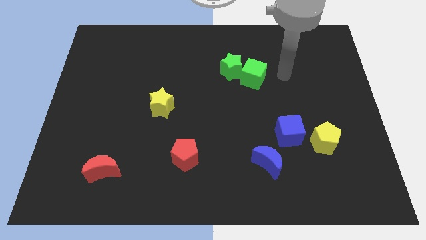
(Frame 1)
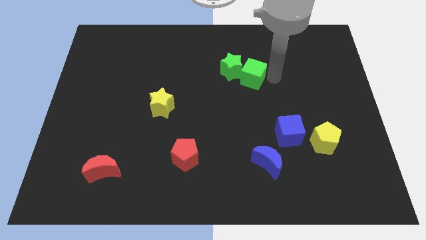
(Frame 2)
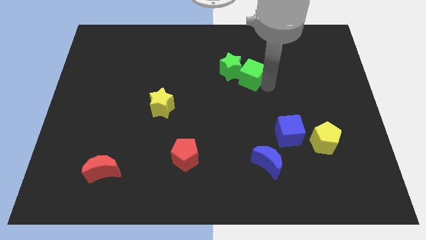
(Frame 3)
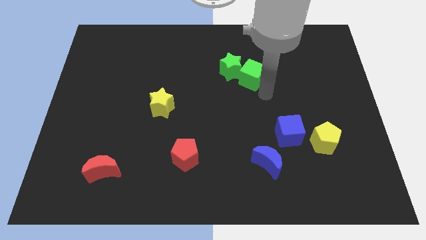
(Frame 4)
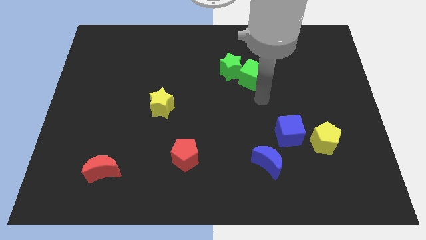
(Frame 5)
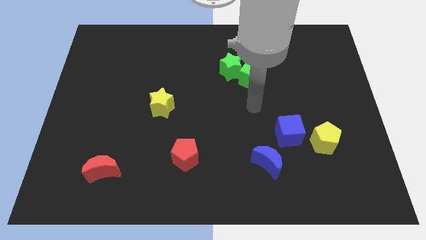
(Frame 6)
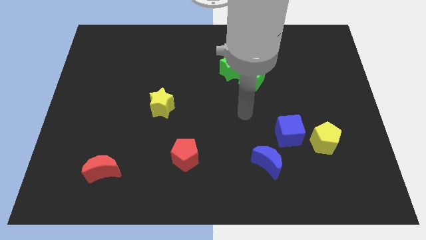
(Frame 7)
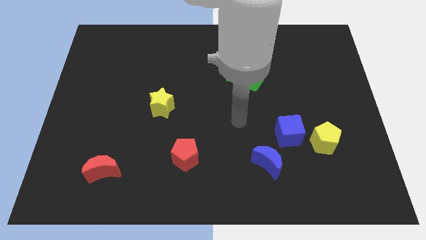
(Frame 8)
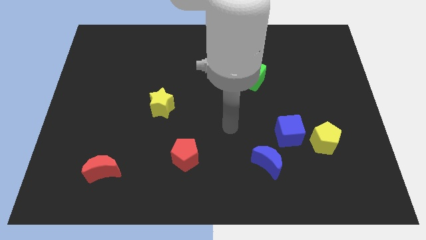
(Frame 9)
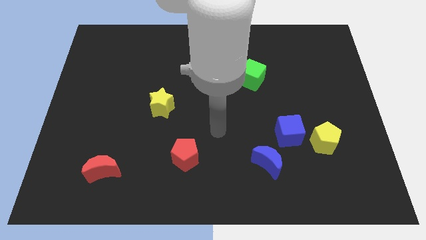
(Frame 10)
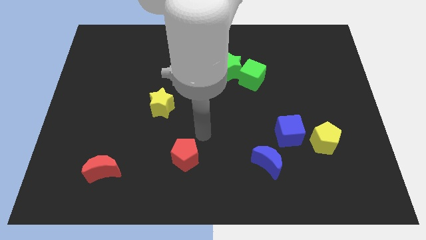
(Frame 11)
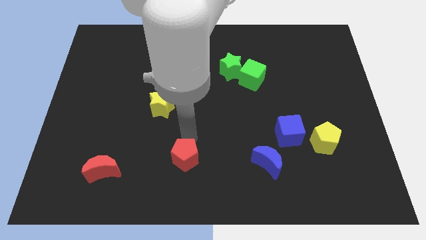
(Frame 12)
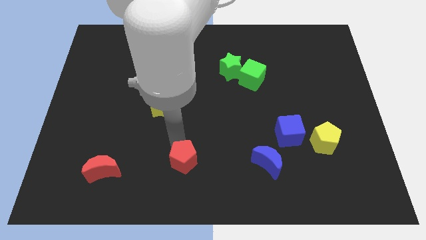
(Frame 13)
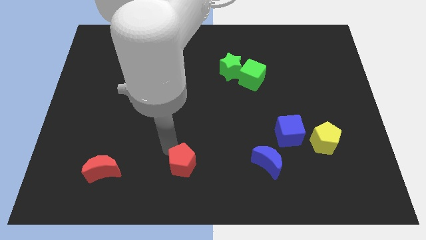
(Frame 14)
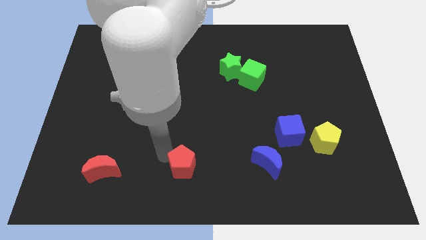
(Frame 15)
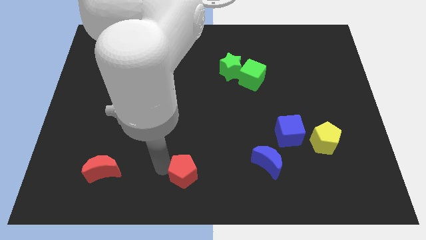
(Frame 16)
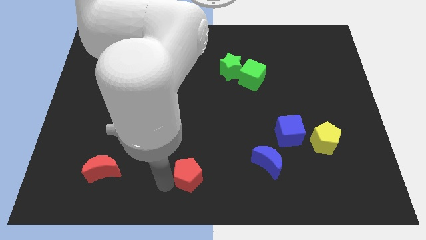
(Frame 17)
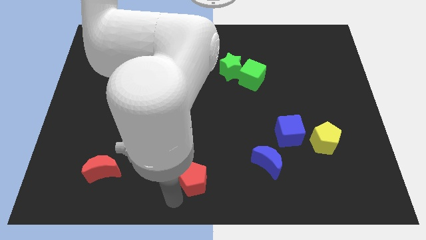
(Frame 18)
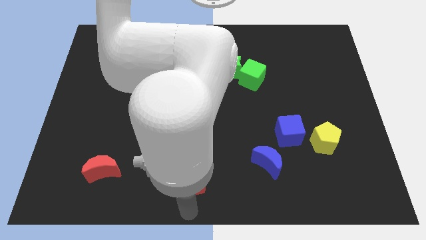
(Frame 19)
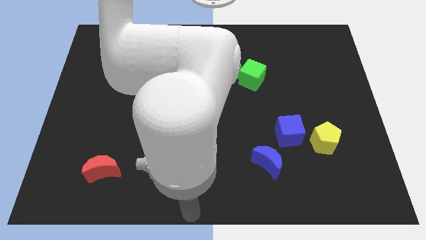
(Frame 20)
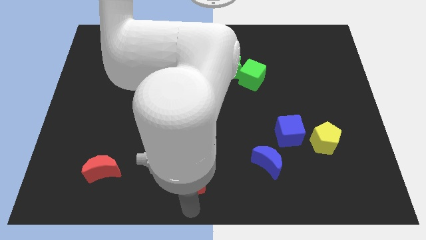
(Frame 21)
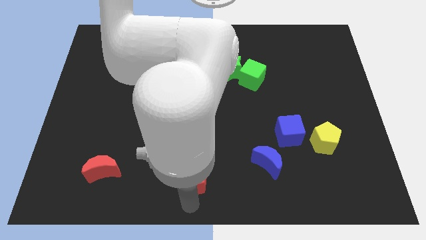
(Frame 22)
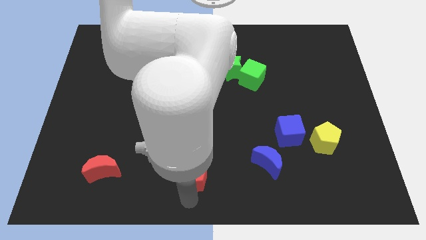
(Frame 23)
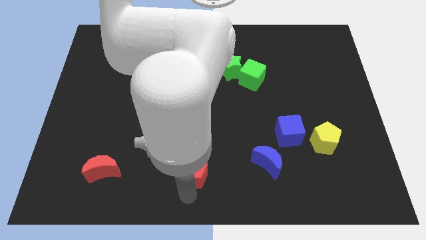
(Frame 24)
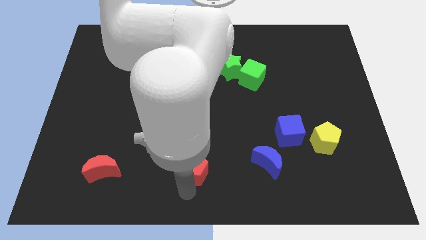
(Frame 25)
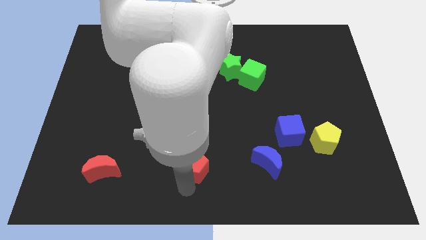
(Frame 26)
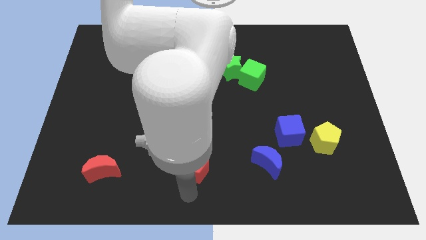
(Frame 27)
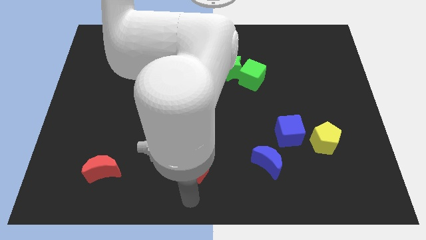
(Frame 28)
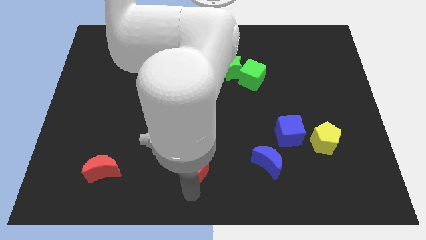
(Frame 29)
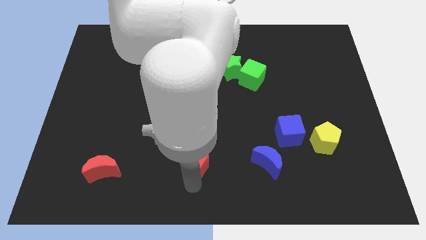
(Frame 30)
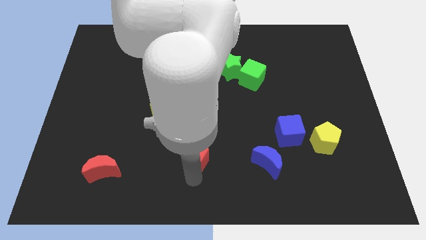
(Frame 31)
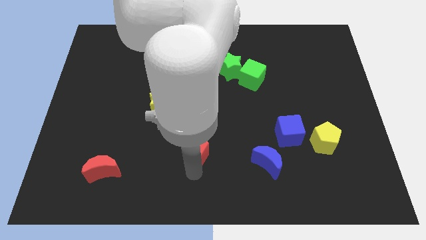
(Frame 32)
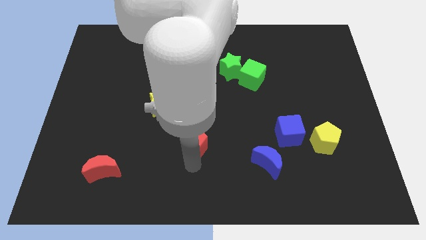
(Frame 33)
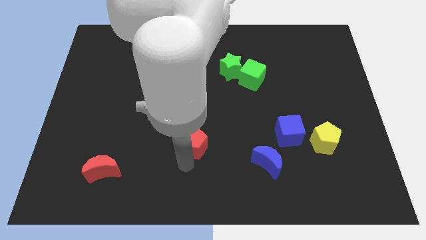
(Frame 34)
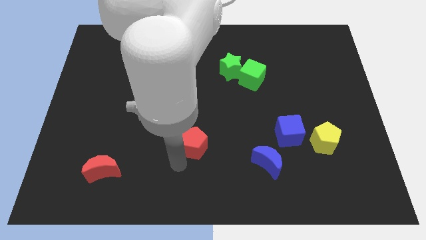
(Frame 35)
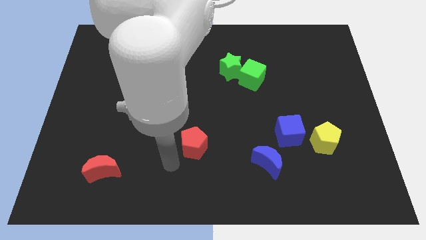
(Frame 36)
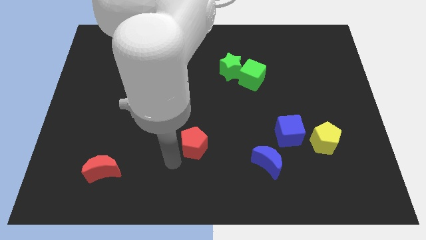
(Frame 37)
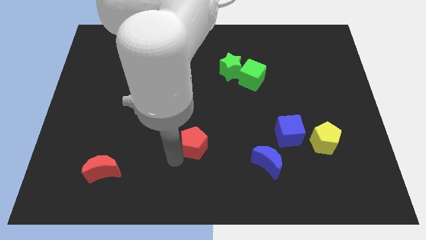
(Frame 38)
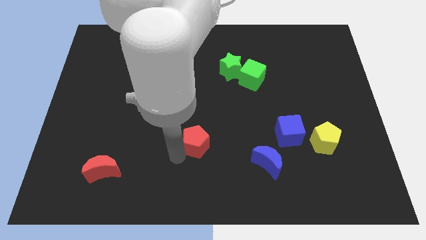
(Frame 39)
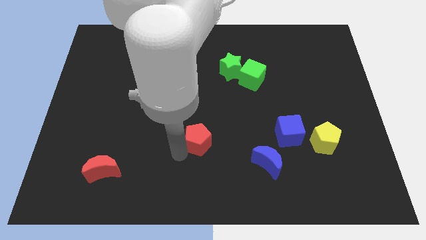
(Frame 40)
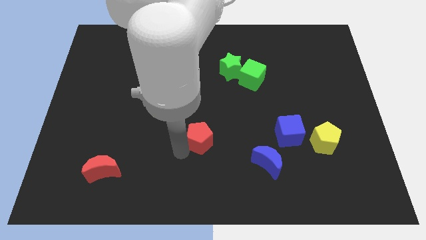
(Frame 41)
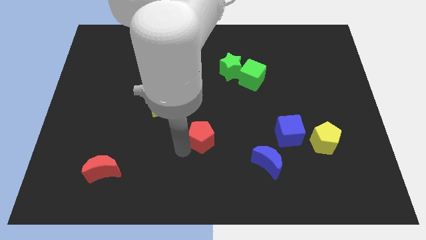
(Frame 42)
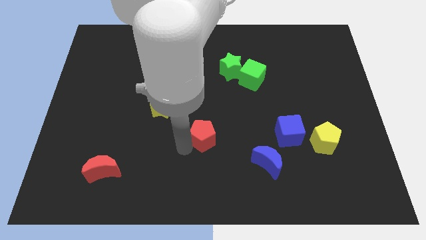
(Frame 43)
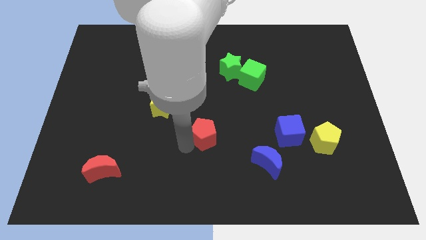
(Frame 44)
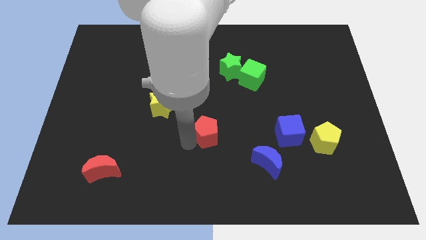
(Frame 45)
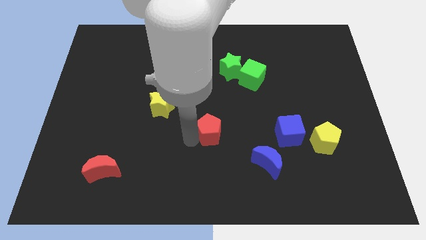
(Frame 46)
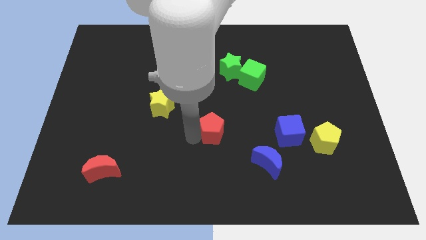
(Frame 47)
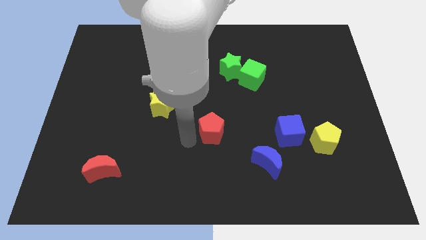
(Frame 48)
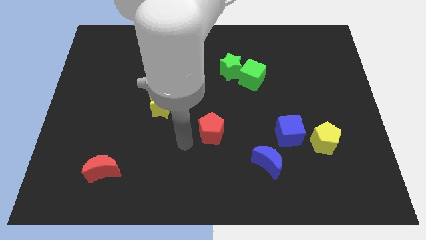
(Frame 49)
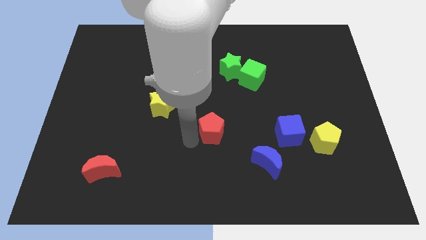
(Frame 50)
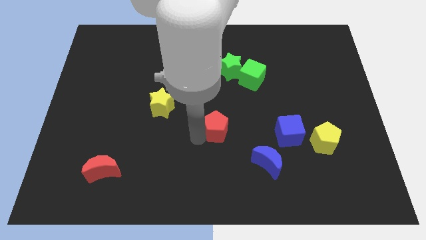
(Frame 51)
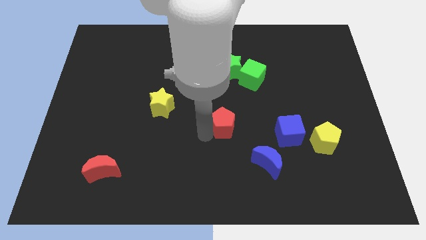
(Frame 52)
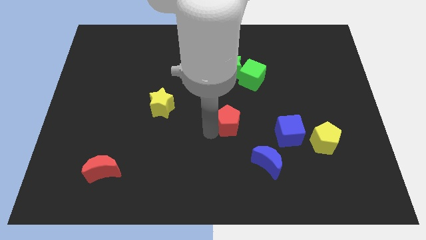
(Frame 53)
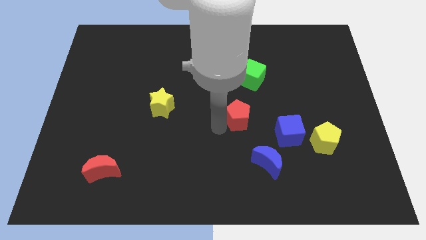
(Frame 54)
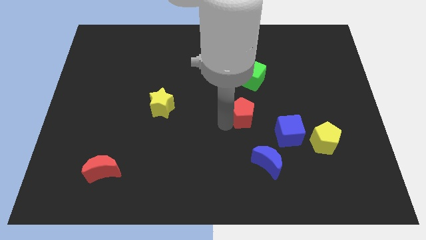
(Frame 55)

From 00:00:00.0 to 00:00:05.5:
move the red pentagon diagonally up and to the left of the blue cube
